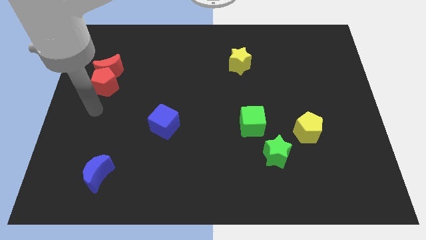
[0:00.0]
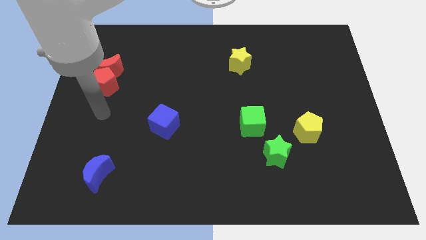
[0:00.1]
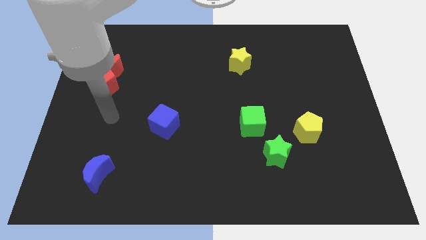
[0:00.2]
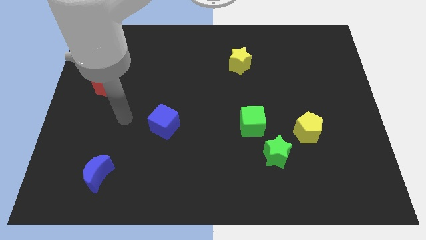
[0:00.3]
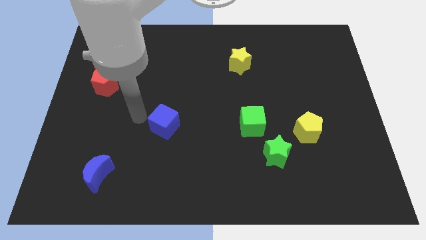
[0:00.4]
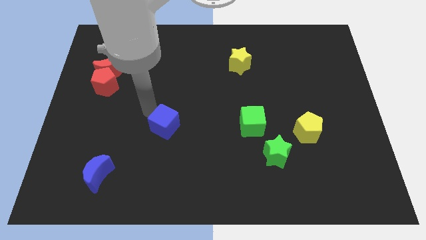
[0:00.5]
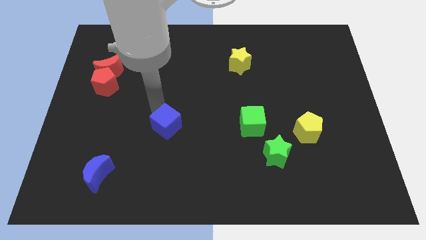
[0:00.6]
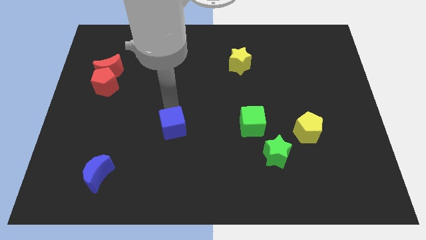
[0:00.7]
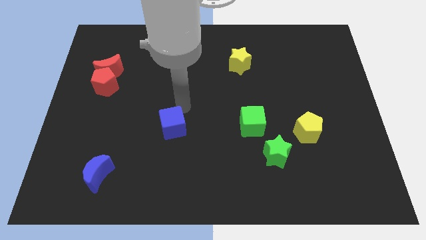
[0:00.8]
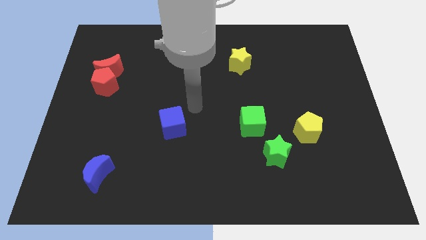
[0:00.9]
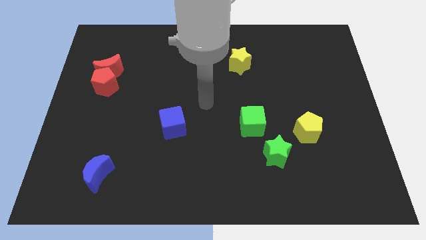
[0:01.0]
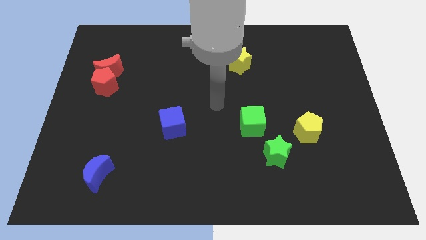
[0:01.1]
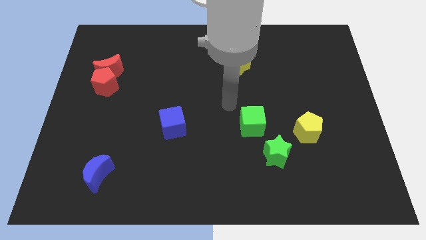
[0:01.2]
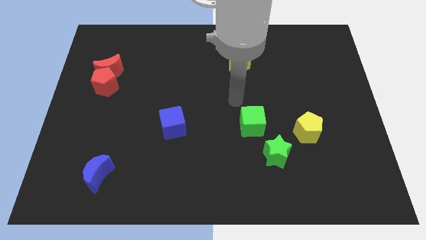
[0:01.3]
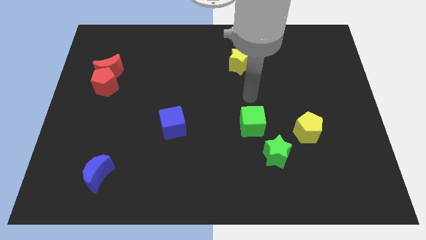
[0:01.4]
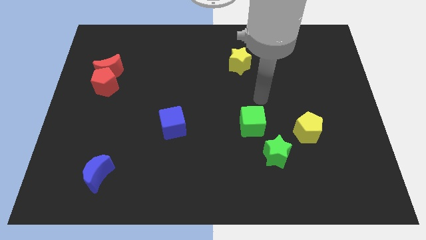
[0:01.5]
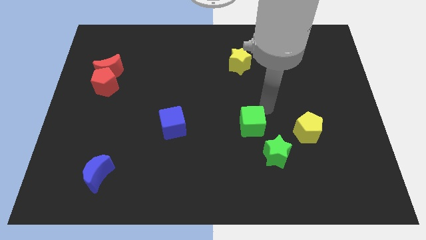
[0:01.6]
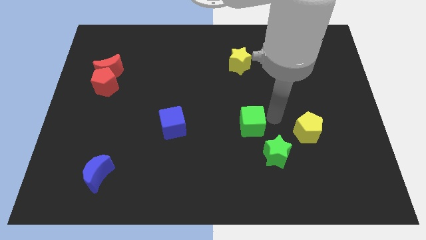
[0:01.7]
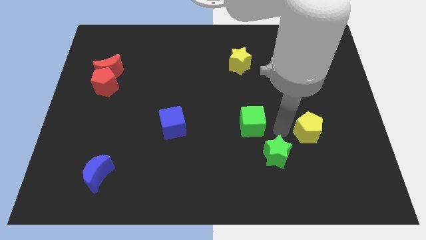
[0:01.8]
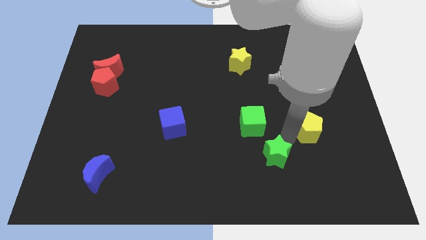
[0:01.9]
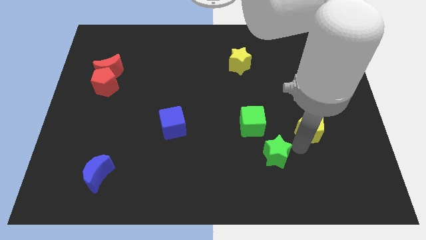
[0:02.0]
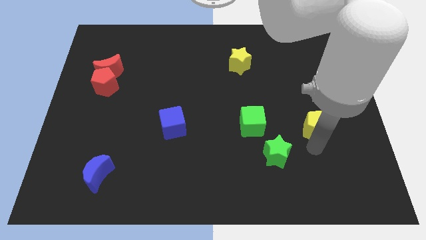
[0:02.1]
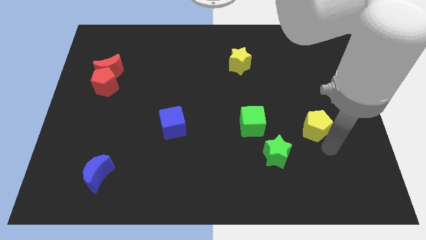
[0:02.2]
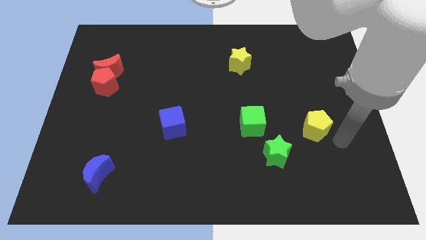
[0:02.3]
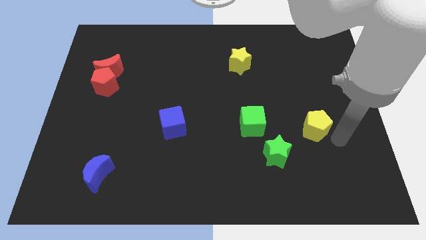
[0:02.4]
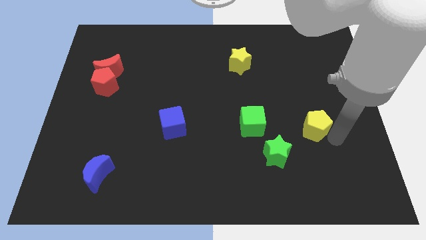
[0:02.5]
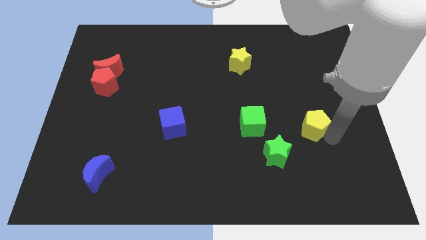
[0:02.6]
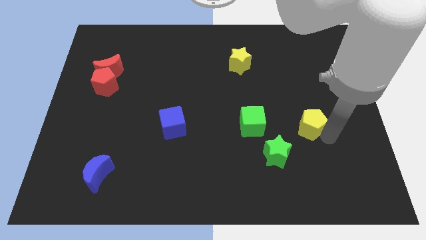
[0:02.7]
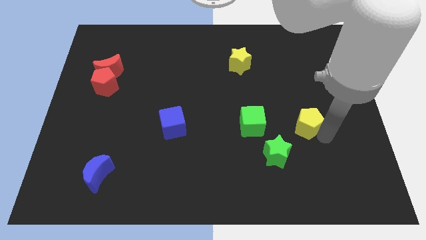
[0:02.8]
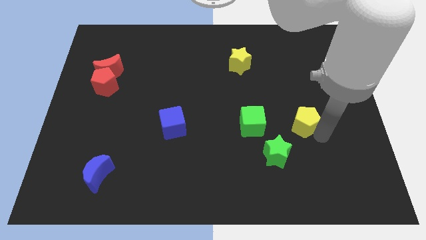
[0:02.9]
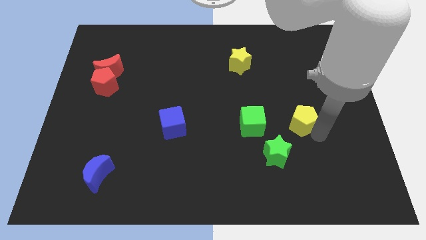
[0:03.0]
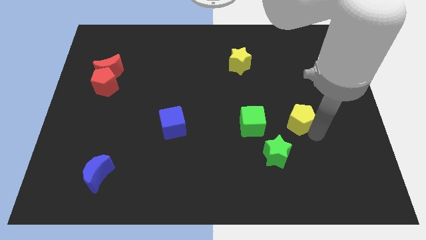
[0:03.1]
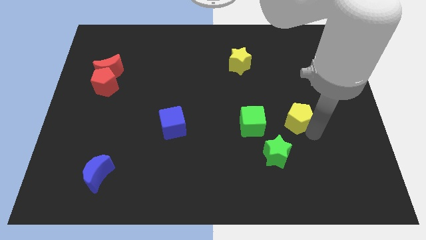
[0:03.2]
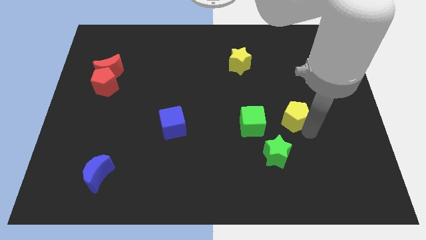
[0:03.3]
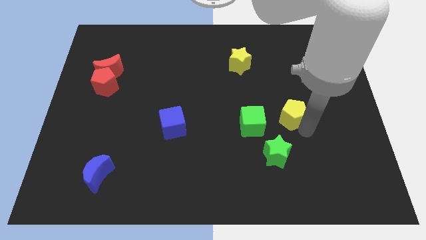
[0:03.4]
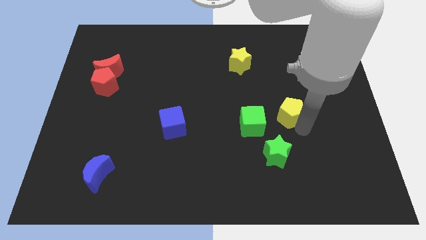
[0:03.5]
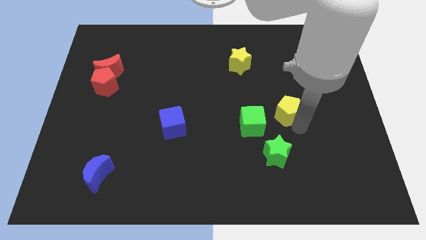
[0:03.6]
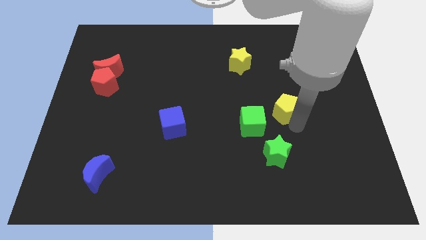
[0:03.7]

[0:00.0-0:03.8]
push the yellow pentagon up and then left somewhat

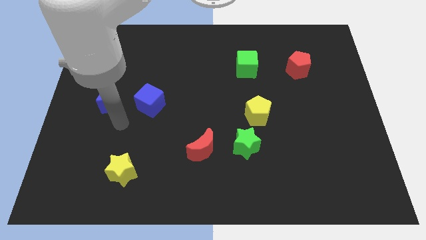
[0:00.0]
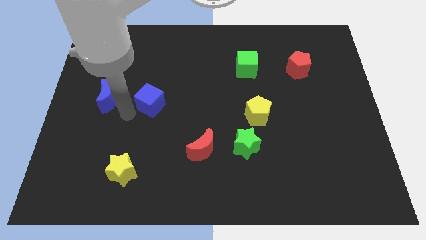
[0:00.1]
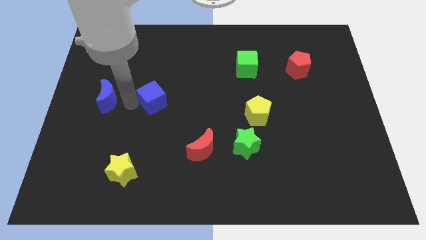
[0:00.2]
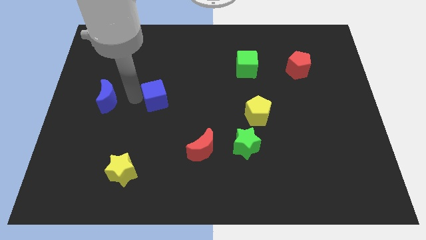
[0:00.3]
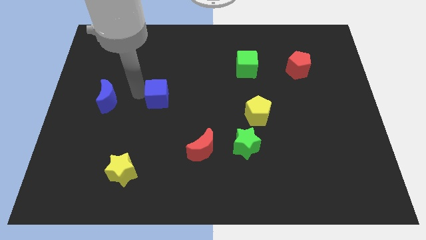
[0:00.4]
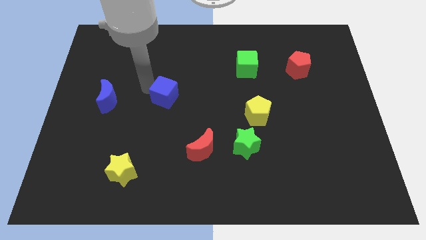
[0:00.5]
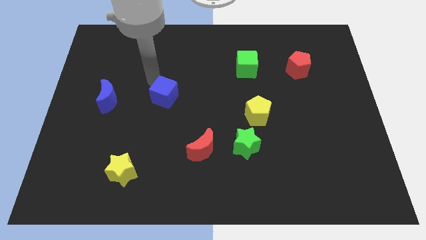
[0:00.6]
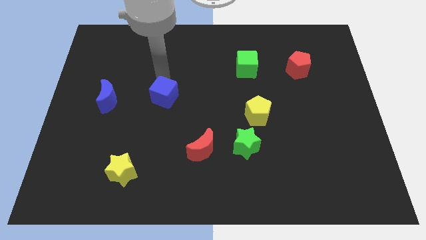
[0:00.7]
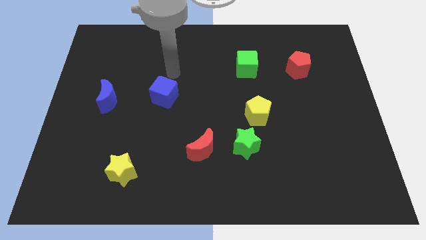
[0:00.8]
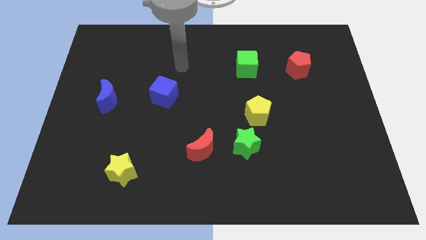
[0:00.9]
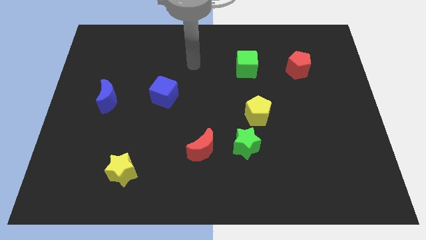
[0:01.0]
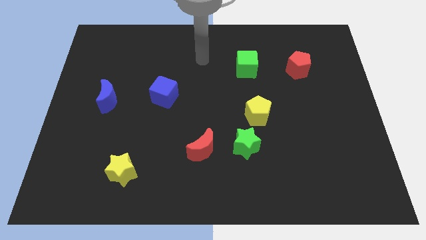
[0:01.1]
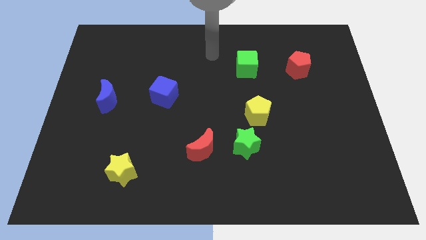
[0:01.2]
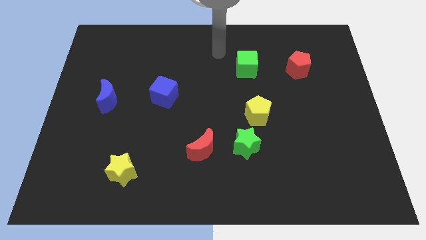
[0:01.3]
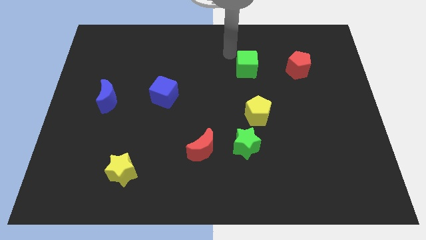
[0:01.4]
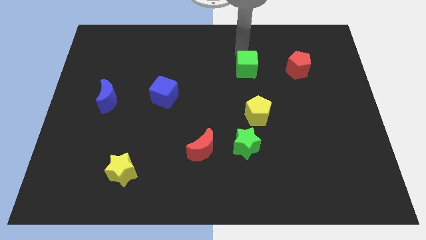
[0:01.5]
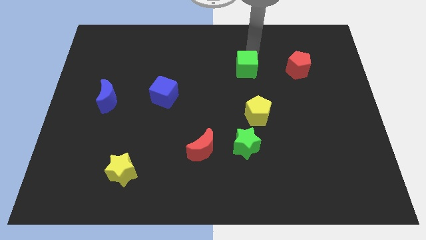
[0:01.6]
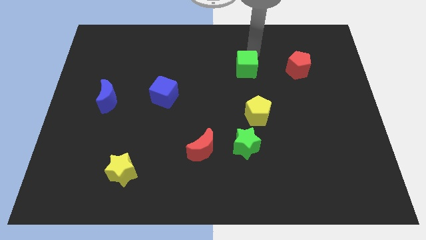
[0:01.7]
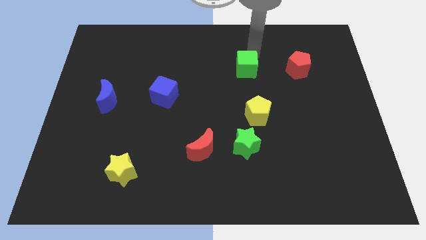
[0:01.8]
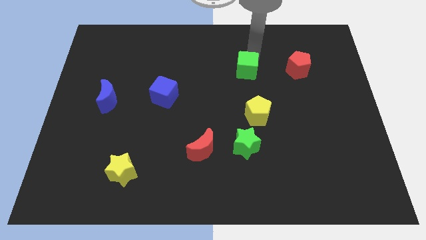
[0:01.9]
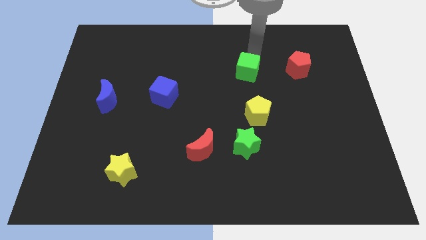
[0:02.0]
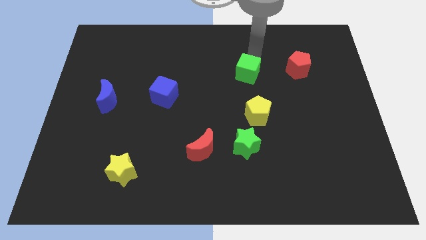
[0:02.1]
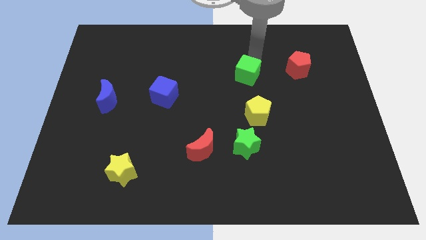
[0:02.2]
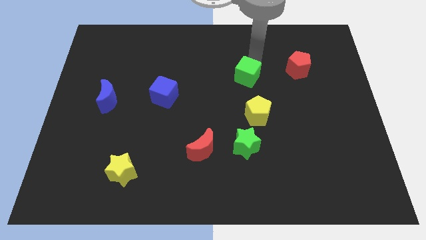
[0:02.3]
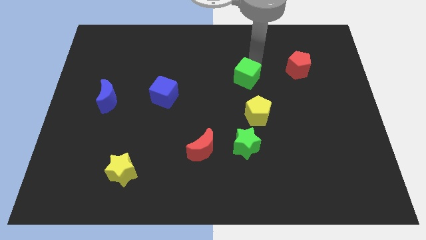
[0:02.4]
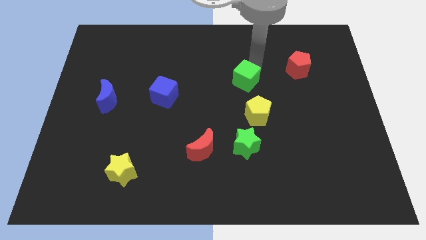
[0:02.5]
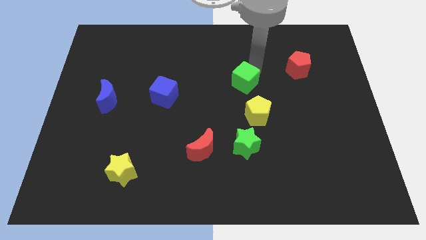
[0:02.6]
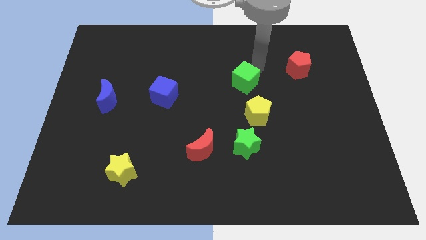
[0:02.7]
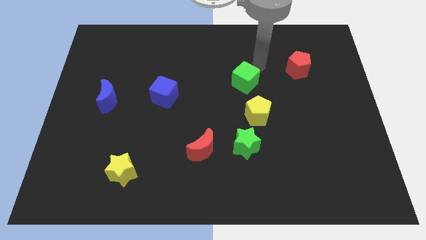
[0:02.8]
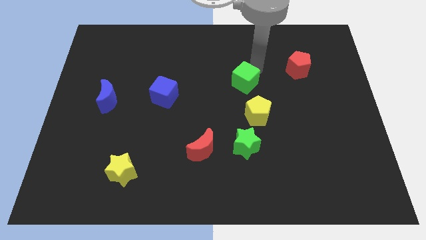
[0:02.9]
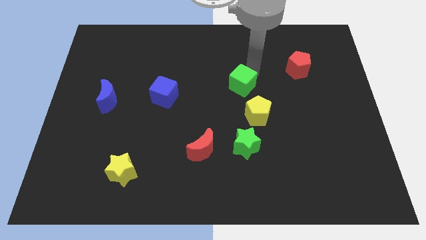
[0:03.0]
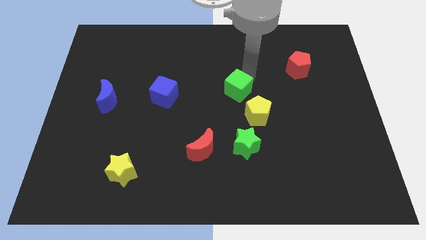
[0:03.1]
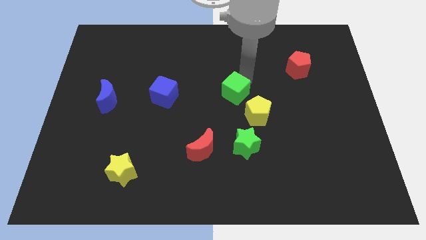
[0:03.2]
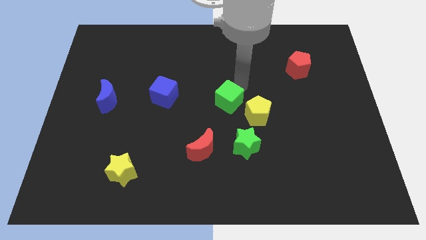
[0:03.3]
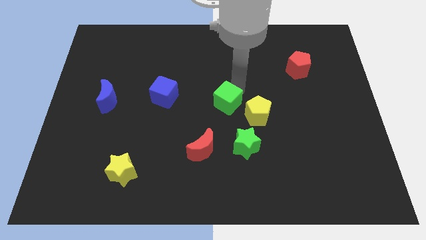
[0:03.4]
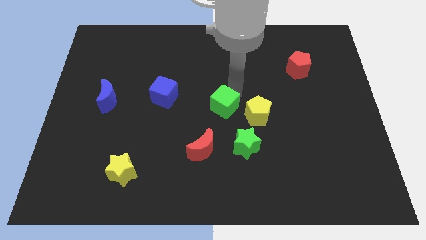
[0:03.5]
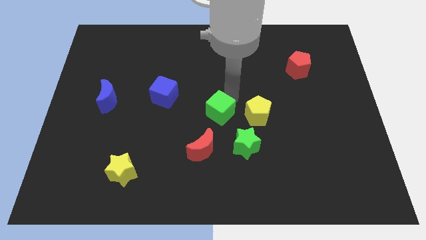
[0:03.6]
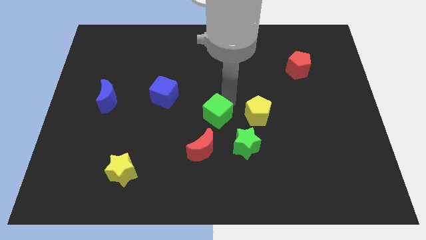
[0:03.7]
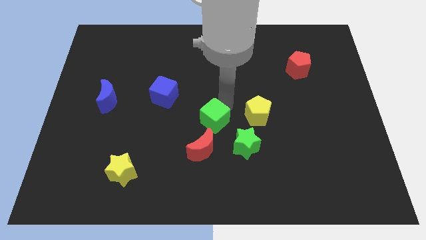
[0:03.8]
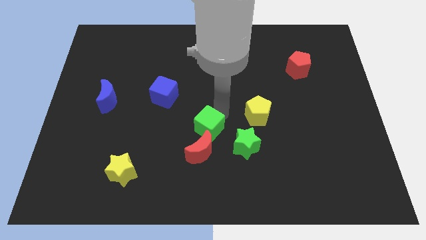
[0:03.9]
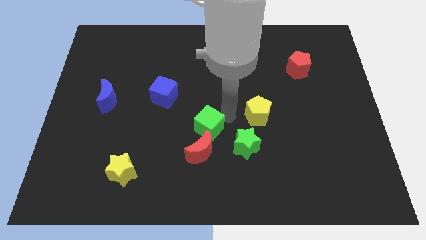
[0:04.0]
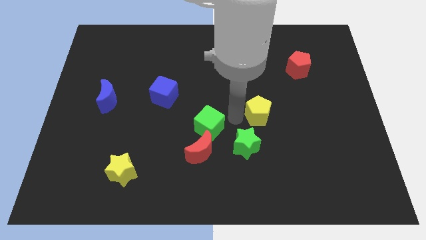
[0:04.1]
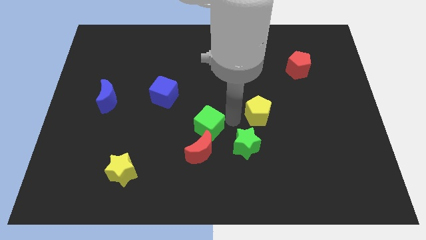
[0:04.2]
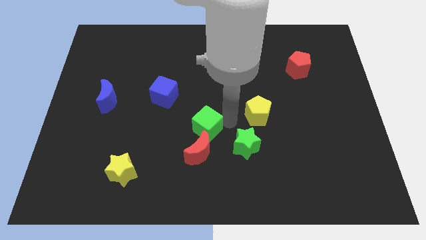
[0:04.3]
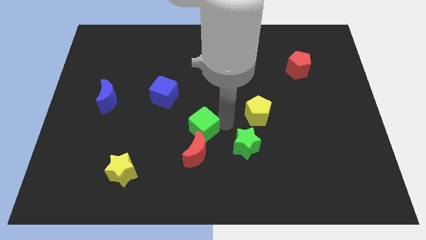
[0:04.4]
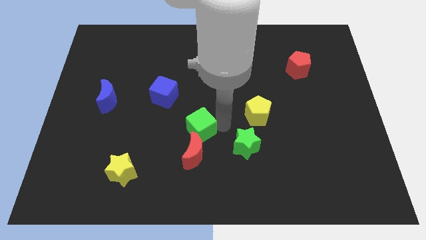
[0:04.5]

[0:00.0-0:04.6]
push the green cube down and left
